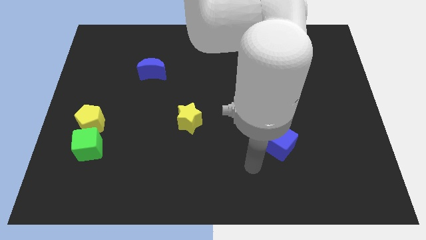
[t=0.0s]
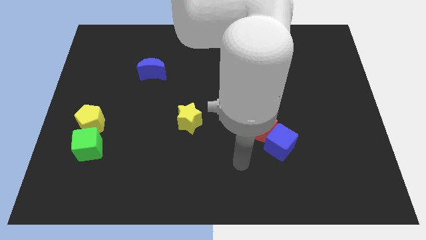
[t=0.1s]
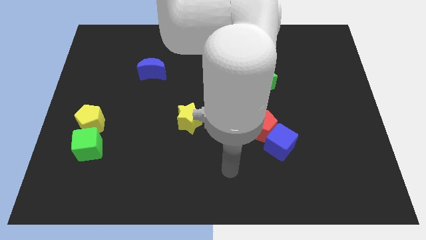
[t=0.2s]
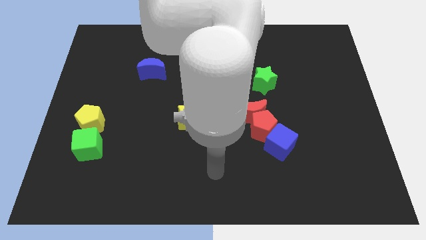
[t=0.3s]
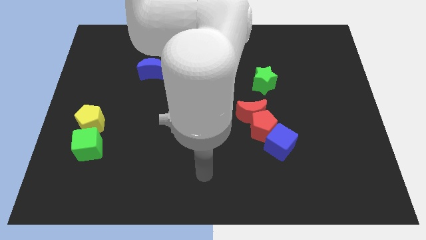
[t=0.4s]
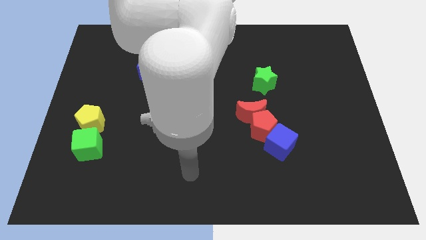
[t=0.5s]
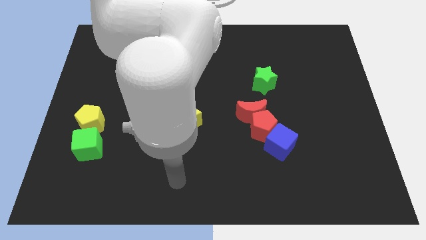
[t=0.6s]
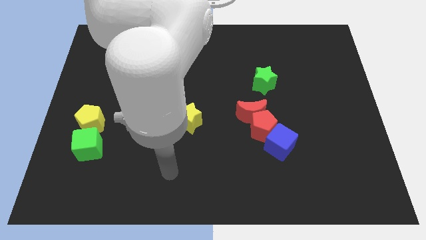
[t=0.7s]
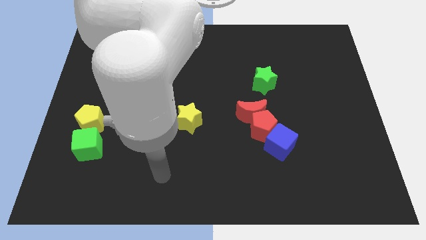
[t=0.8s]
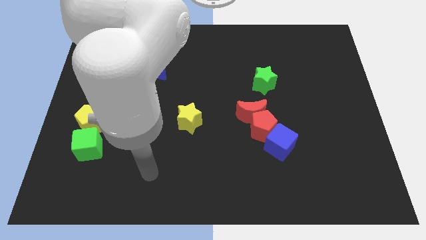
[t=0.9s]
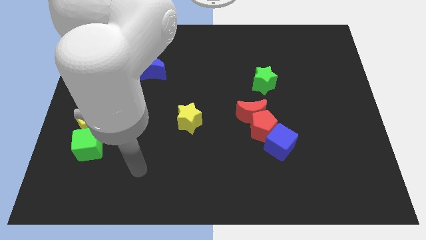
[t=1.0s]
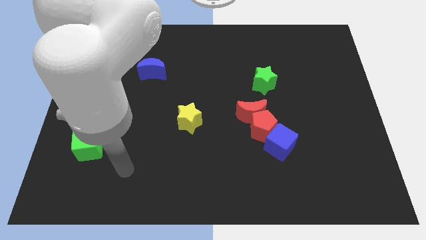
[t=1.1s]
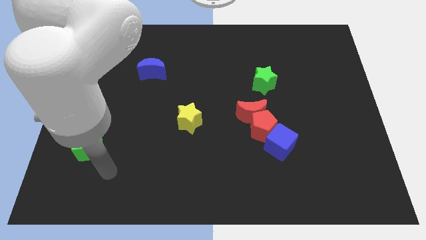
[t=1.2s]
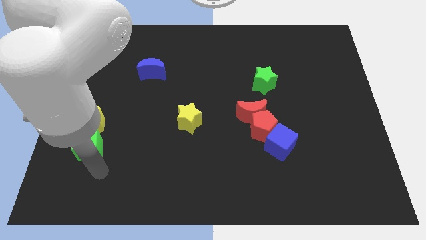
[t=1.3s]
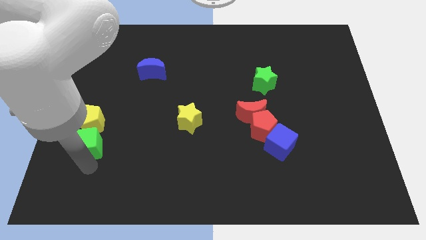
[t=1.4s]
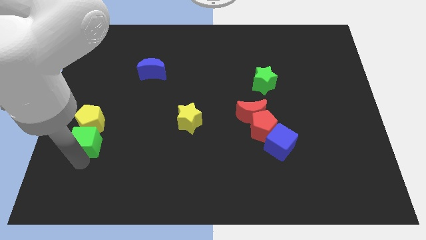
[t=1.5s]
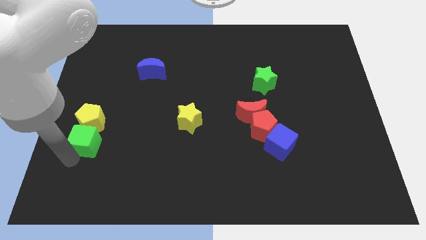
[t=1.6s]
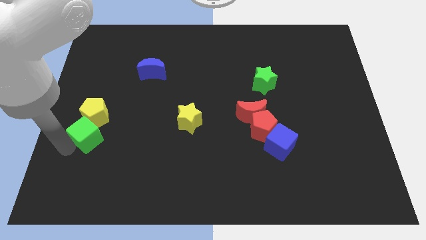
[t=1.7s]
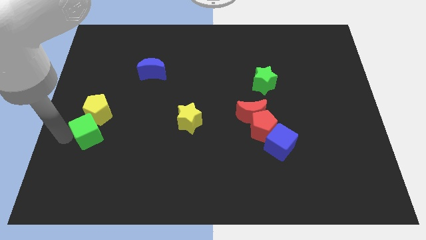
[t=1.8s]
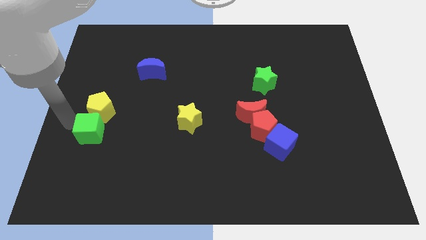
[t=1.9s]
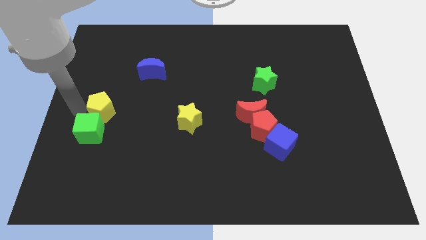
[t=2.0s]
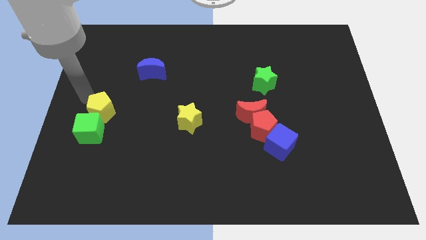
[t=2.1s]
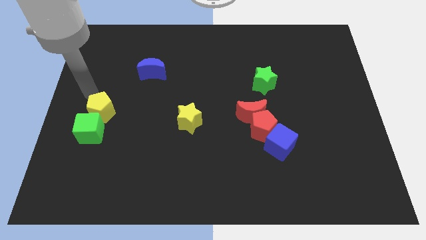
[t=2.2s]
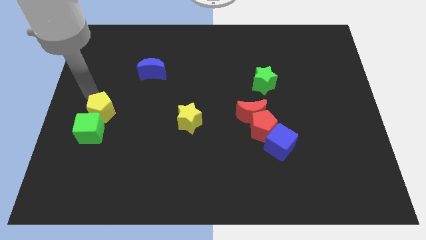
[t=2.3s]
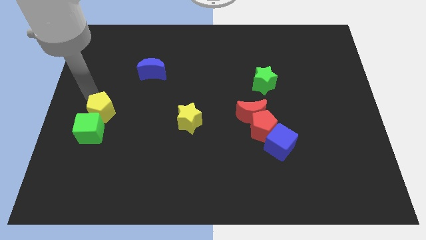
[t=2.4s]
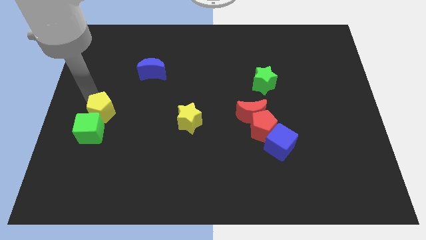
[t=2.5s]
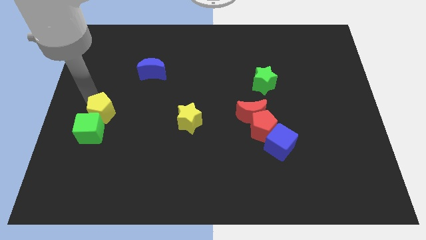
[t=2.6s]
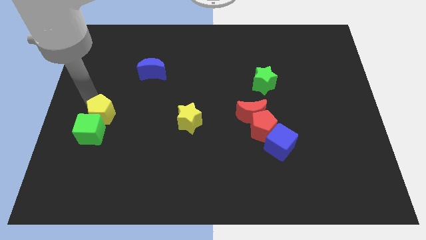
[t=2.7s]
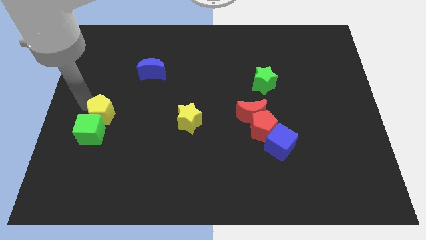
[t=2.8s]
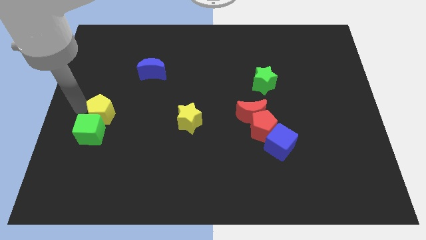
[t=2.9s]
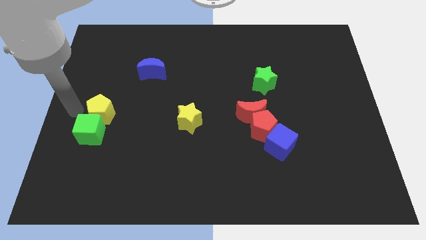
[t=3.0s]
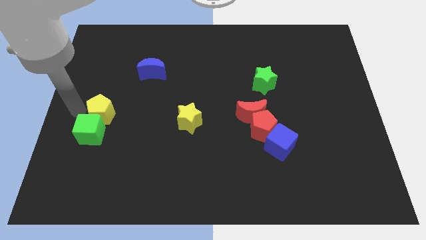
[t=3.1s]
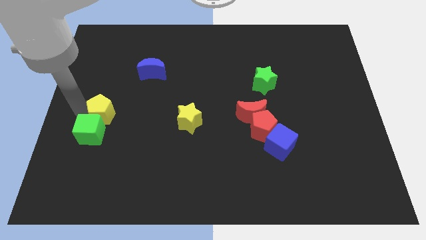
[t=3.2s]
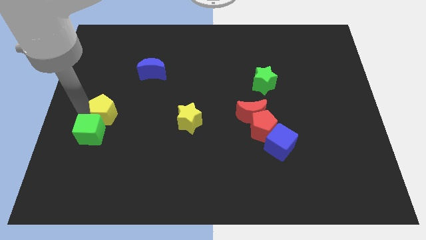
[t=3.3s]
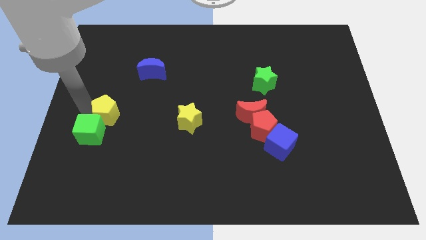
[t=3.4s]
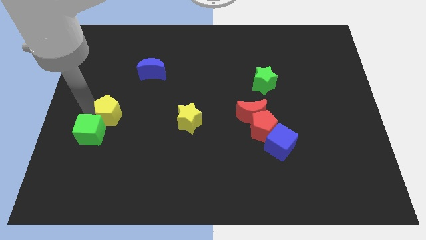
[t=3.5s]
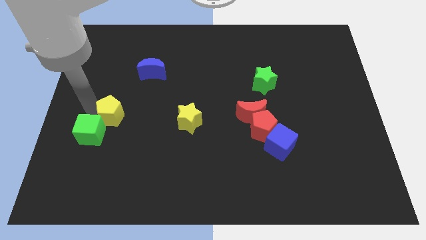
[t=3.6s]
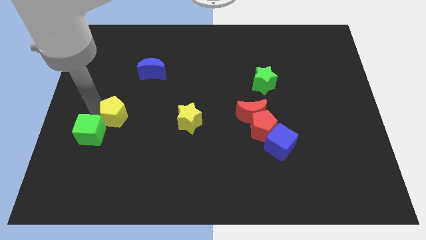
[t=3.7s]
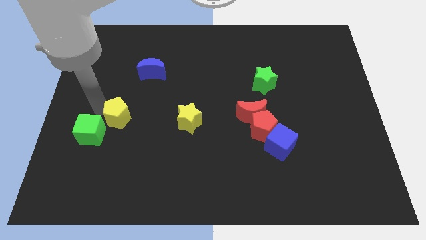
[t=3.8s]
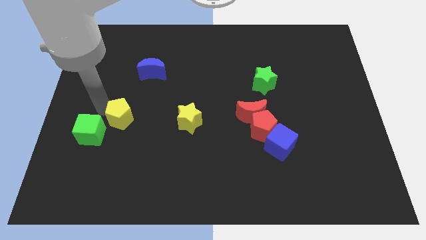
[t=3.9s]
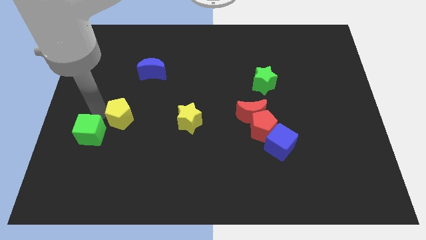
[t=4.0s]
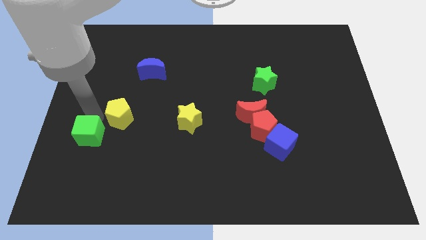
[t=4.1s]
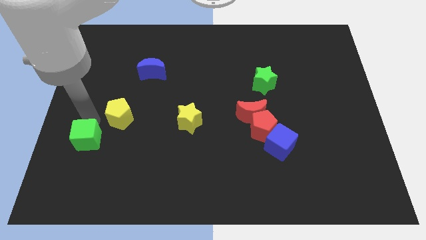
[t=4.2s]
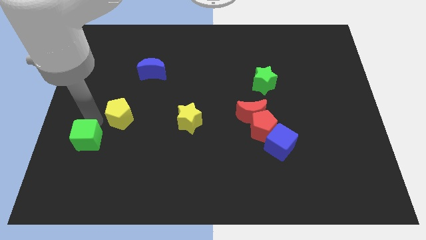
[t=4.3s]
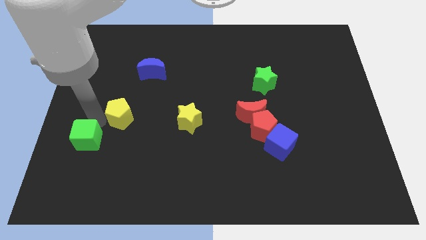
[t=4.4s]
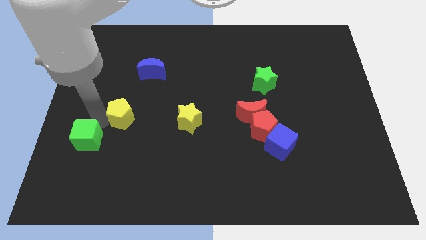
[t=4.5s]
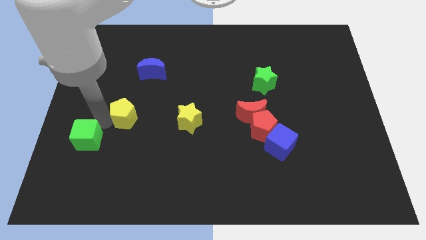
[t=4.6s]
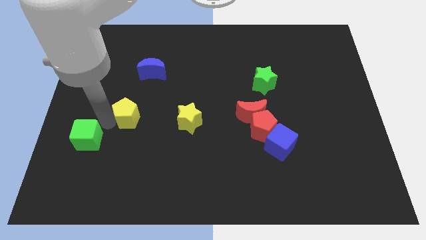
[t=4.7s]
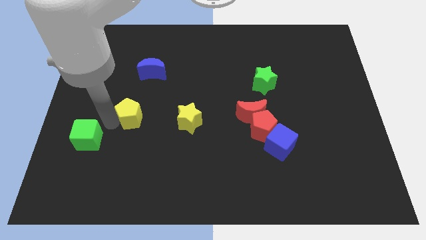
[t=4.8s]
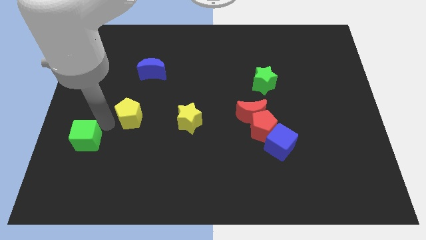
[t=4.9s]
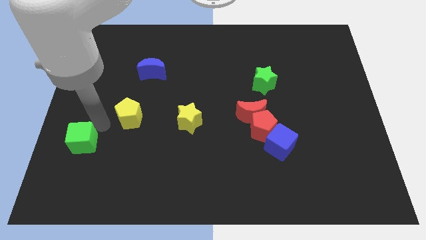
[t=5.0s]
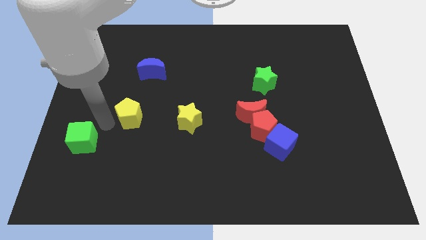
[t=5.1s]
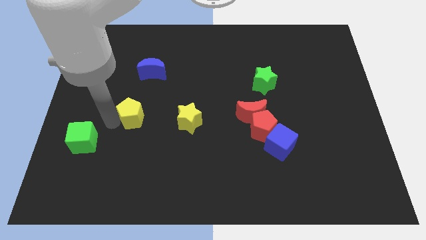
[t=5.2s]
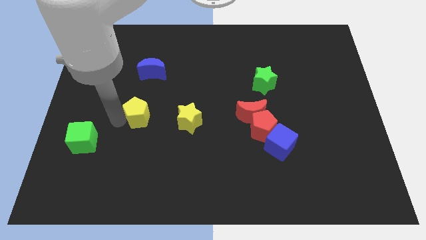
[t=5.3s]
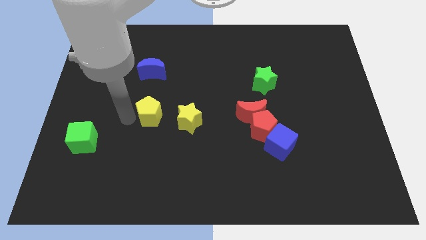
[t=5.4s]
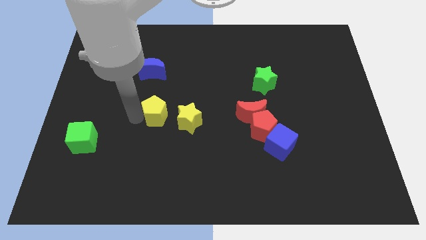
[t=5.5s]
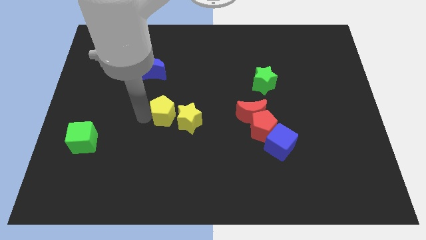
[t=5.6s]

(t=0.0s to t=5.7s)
put the yellow pentagon to the middle of the board

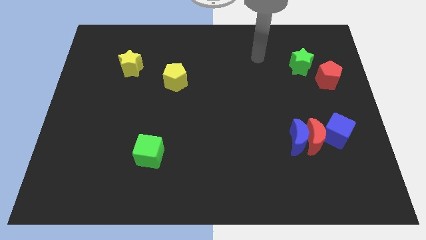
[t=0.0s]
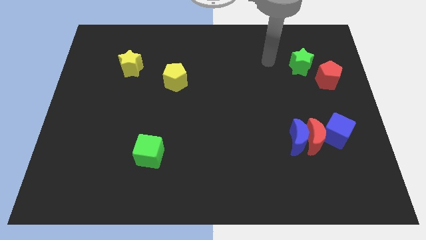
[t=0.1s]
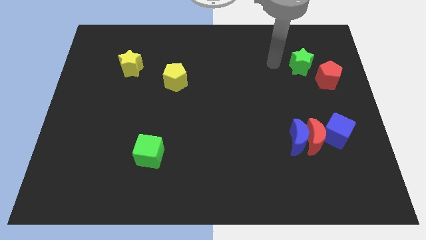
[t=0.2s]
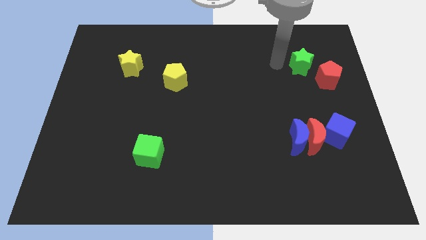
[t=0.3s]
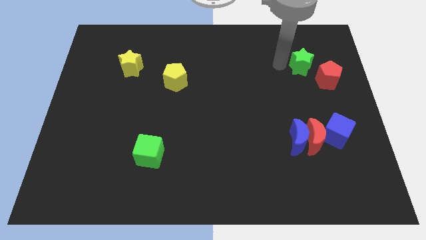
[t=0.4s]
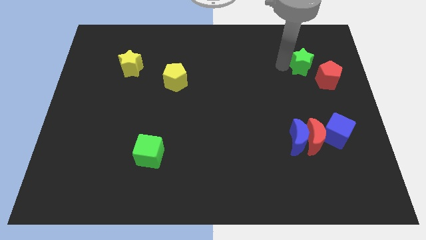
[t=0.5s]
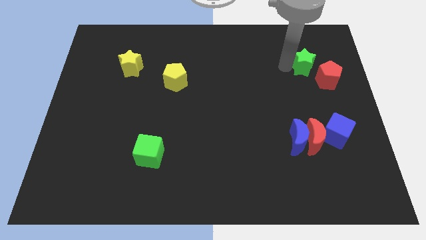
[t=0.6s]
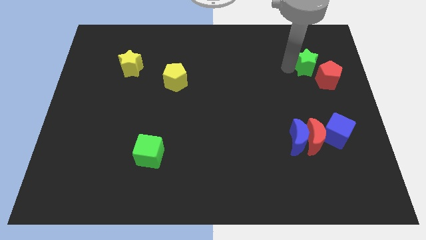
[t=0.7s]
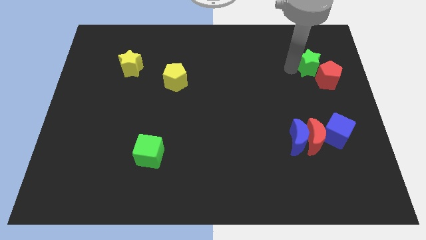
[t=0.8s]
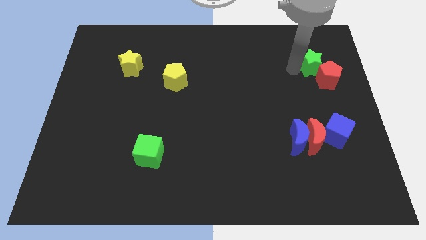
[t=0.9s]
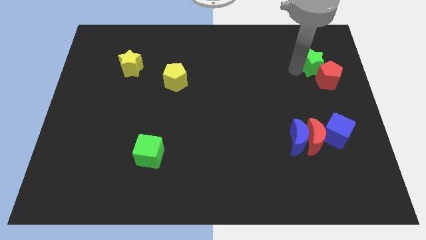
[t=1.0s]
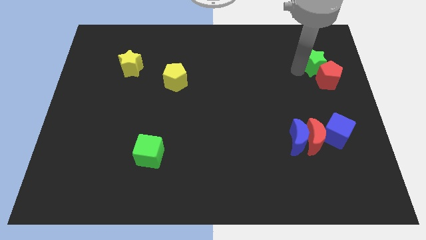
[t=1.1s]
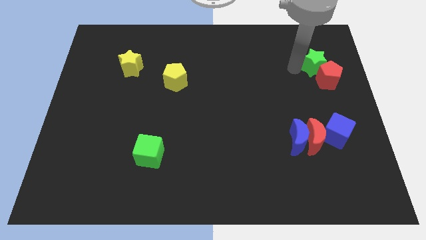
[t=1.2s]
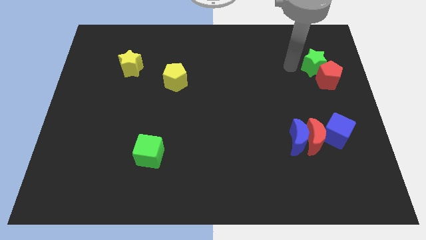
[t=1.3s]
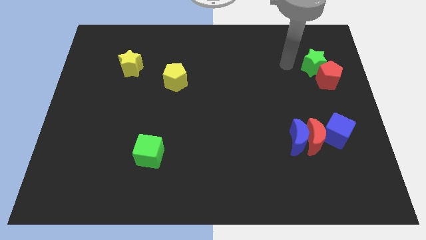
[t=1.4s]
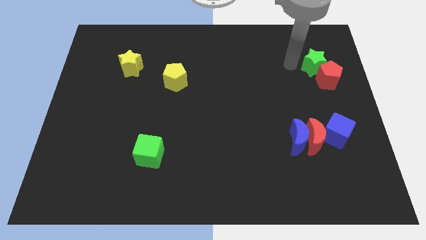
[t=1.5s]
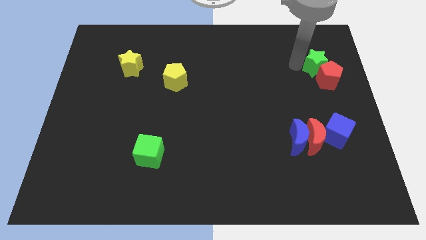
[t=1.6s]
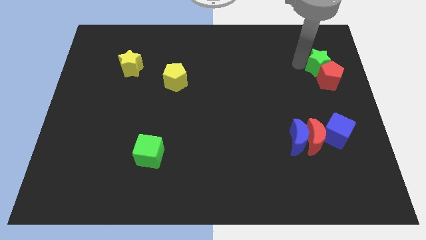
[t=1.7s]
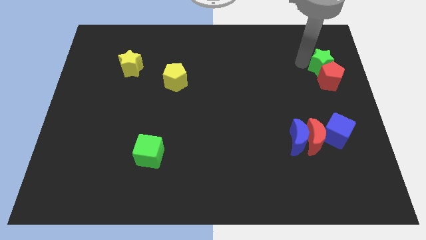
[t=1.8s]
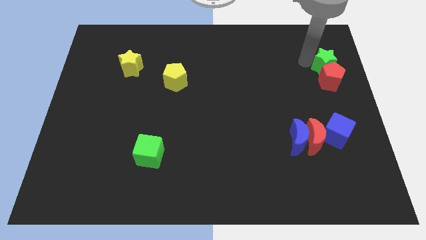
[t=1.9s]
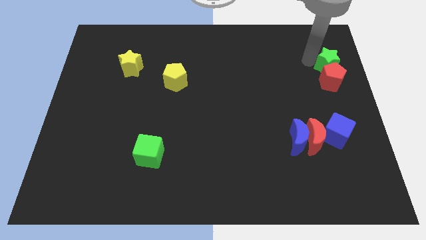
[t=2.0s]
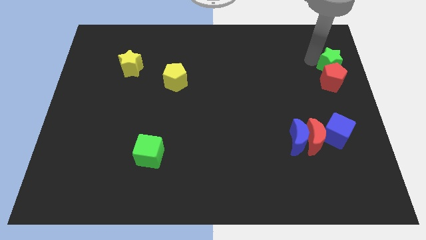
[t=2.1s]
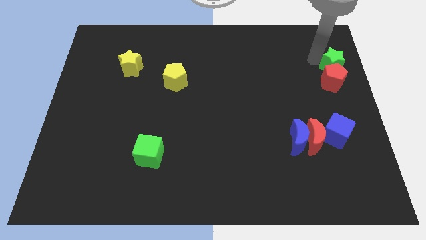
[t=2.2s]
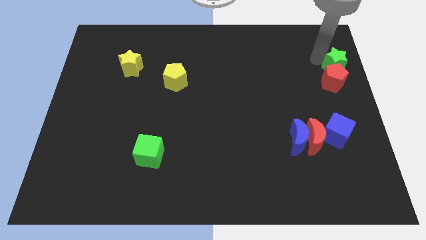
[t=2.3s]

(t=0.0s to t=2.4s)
move the green star to the right side
